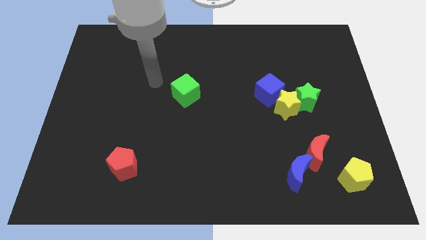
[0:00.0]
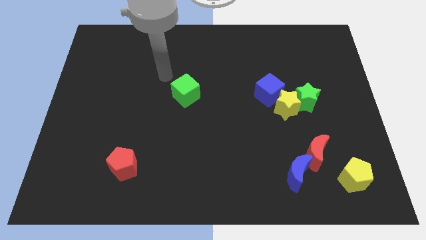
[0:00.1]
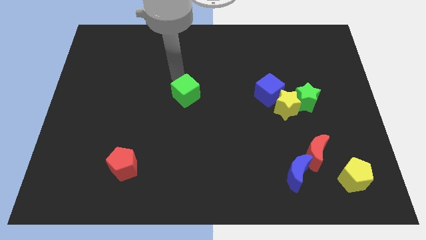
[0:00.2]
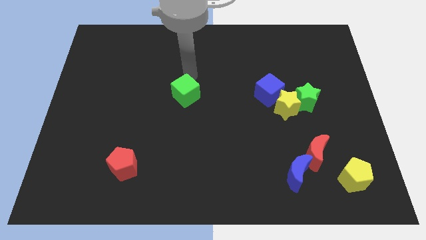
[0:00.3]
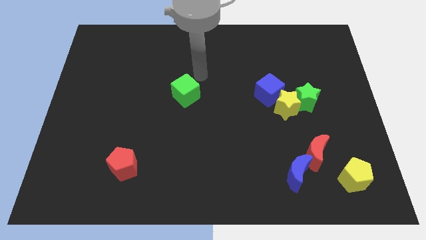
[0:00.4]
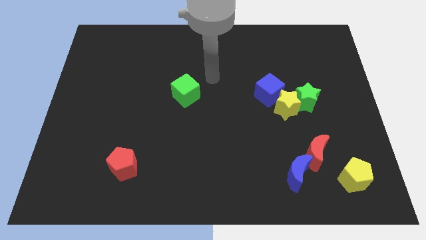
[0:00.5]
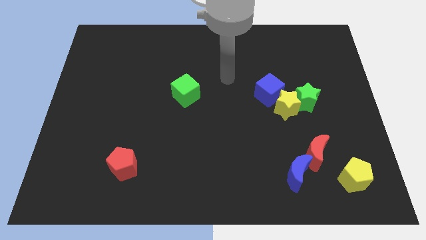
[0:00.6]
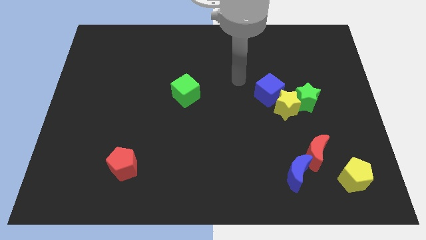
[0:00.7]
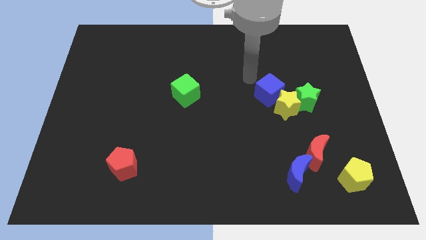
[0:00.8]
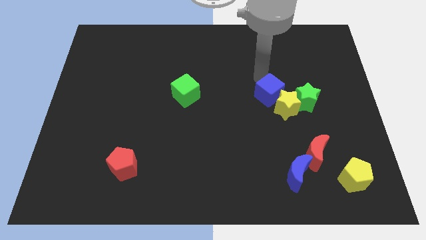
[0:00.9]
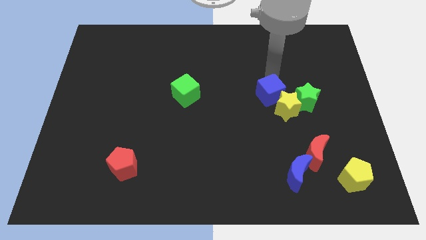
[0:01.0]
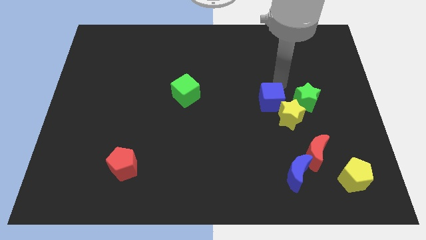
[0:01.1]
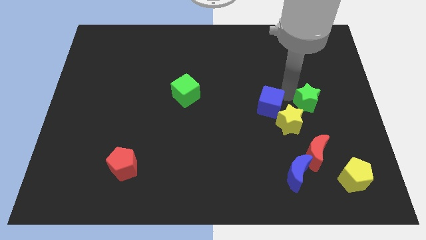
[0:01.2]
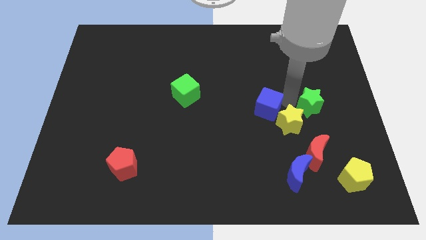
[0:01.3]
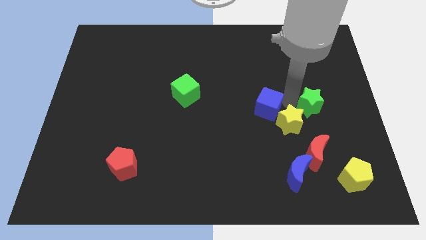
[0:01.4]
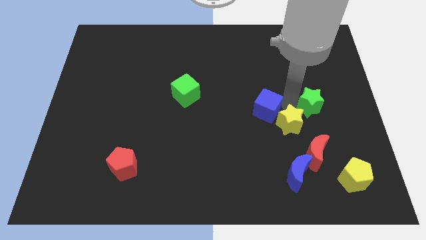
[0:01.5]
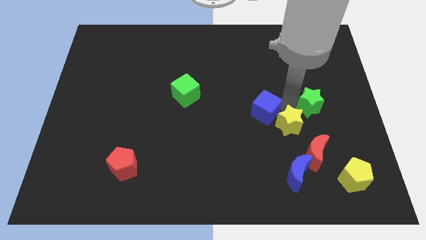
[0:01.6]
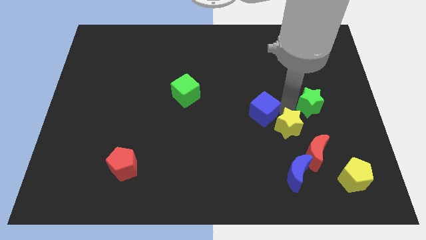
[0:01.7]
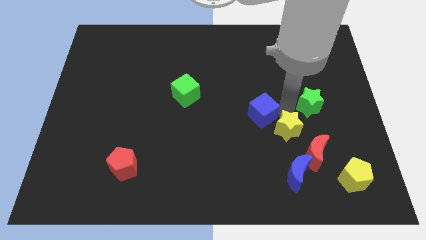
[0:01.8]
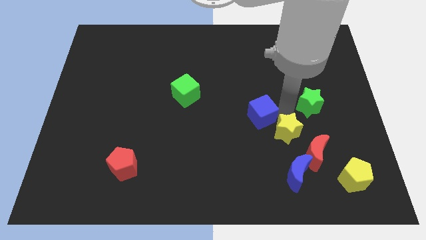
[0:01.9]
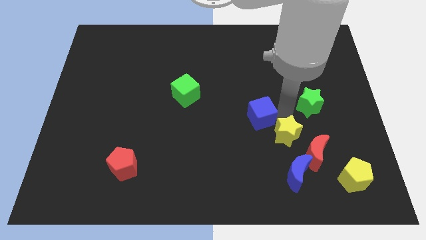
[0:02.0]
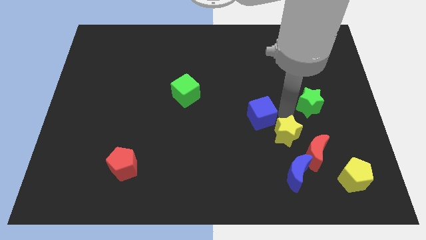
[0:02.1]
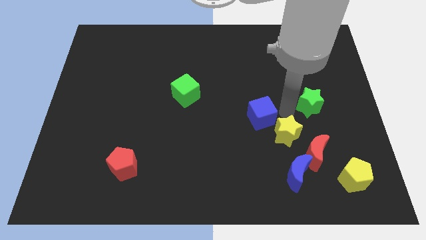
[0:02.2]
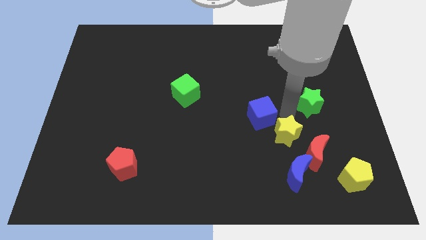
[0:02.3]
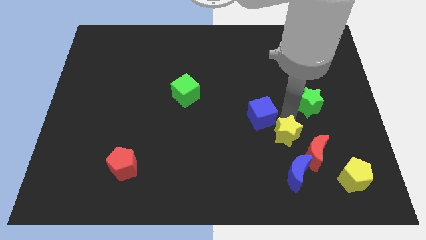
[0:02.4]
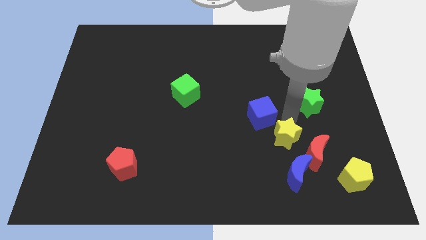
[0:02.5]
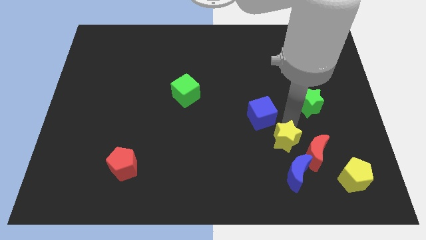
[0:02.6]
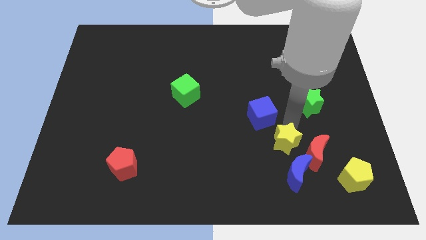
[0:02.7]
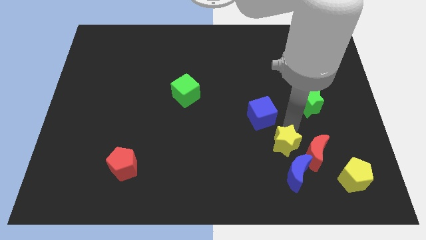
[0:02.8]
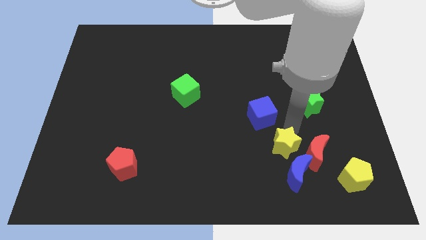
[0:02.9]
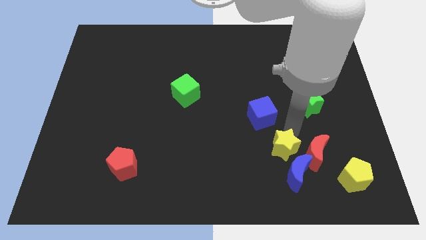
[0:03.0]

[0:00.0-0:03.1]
pull the yellow star apart from the green star and blue cube

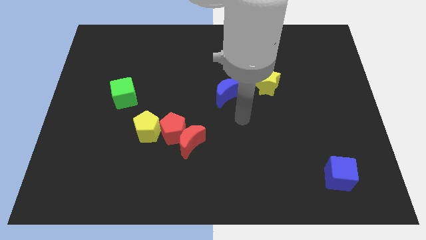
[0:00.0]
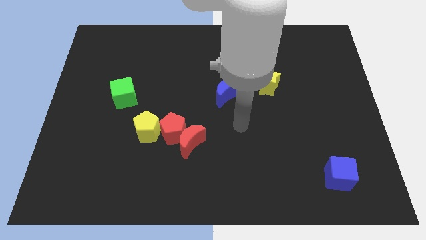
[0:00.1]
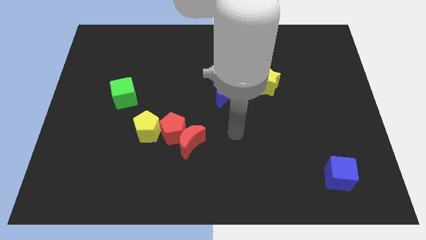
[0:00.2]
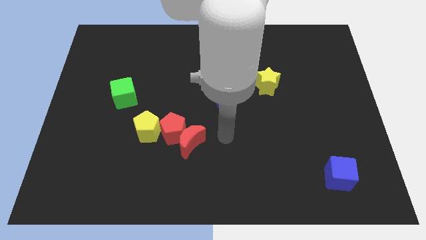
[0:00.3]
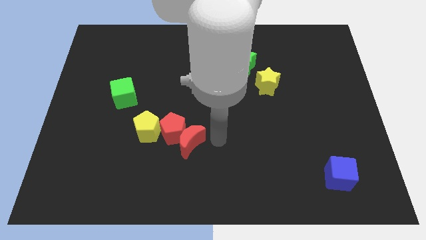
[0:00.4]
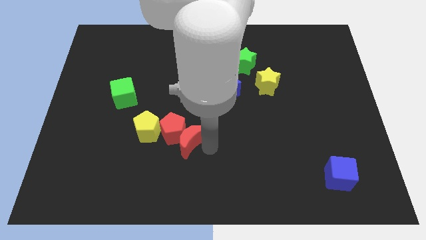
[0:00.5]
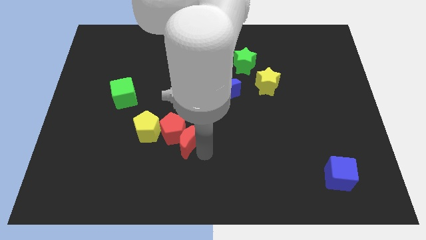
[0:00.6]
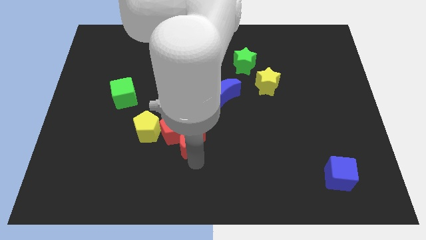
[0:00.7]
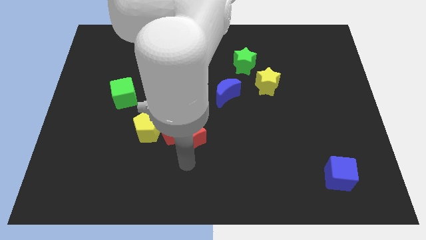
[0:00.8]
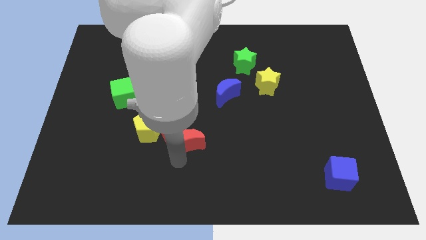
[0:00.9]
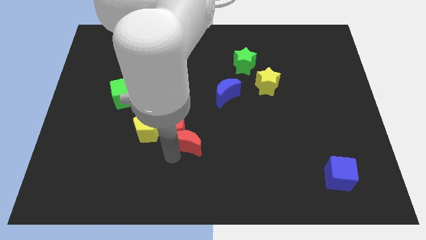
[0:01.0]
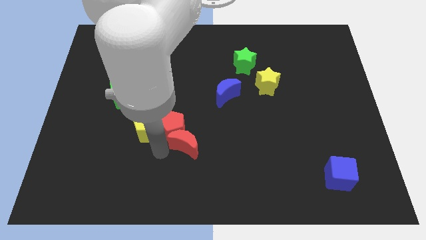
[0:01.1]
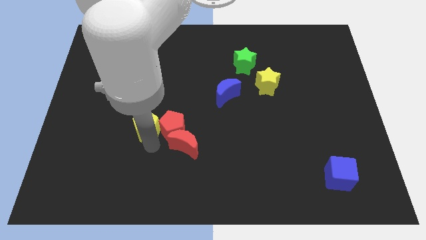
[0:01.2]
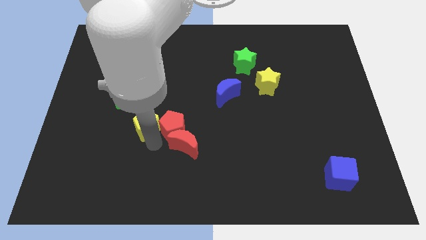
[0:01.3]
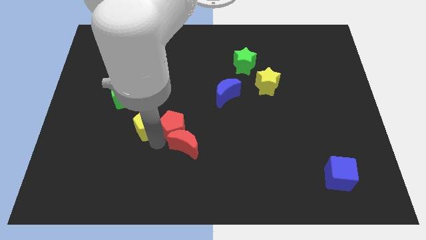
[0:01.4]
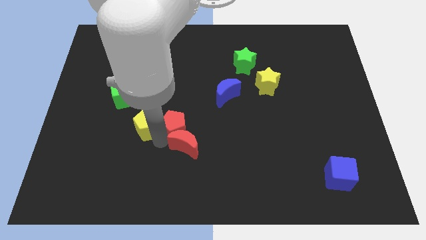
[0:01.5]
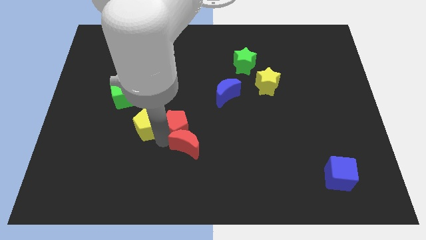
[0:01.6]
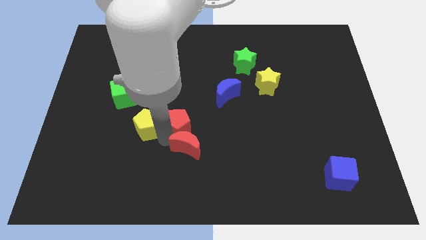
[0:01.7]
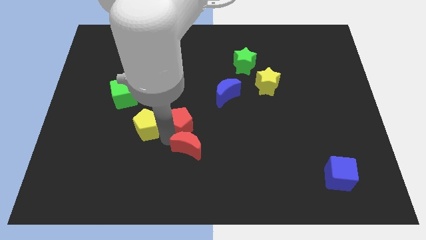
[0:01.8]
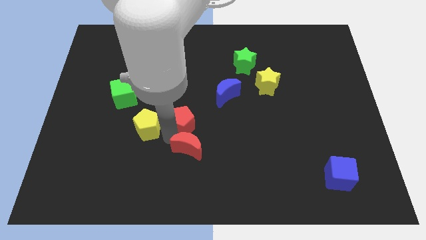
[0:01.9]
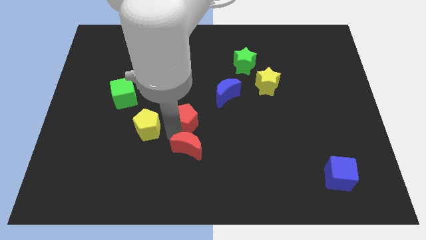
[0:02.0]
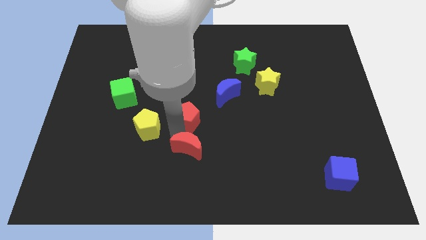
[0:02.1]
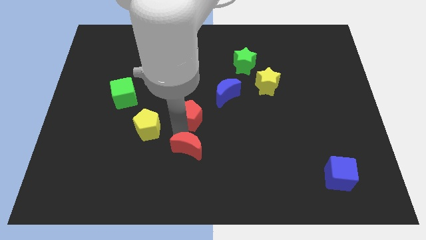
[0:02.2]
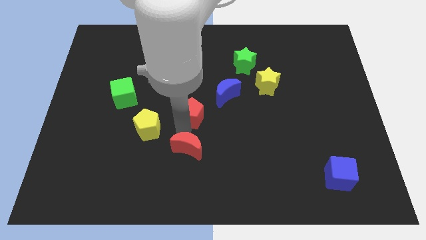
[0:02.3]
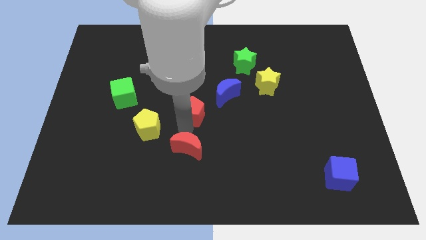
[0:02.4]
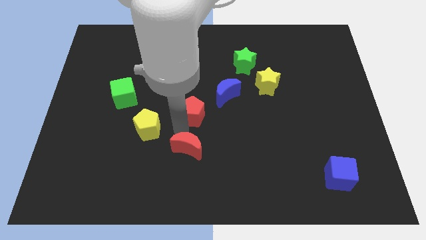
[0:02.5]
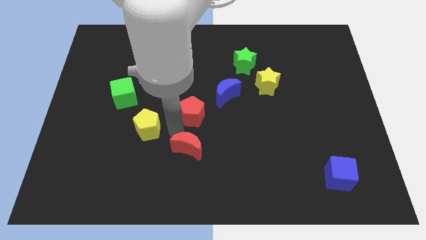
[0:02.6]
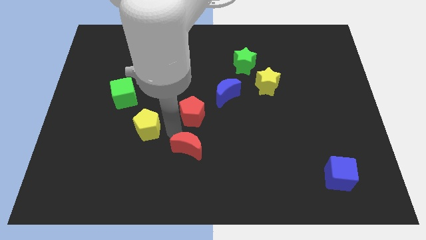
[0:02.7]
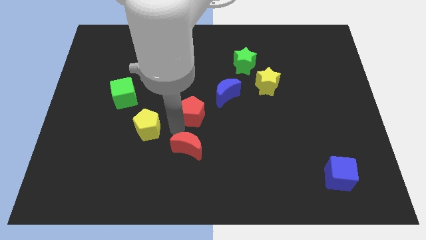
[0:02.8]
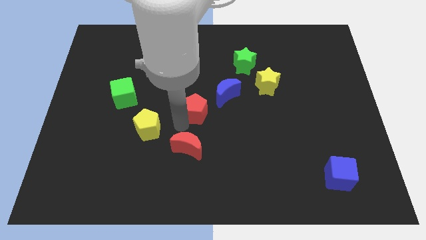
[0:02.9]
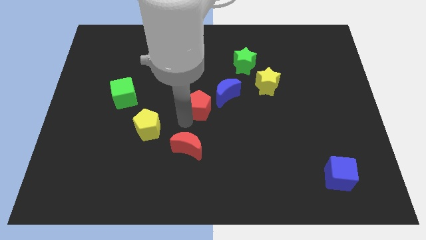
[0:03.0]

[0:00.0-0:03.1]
move the red pentagon away from the red moon and yellow pentagon

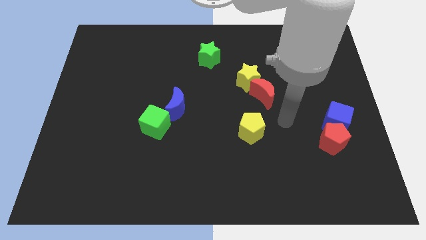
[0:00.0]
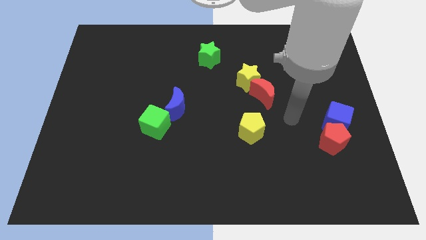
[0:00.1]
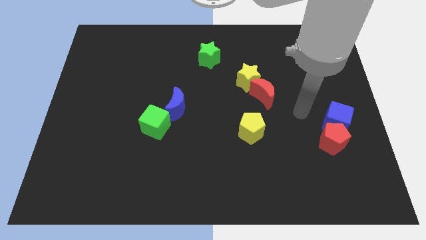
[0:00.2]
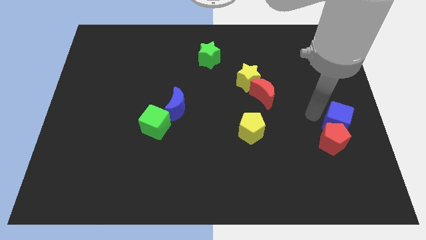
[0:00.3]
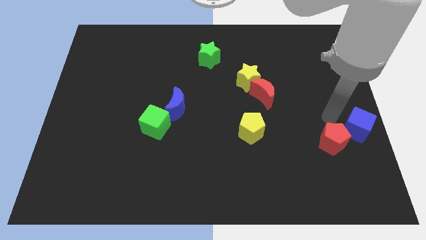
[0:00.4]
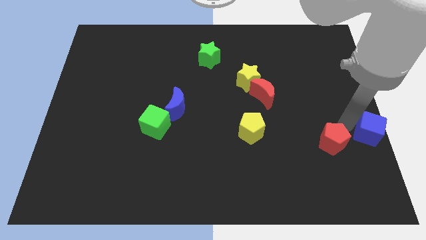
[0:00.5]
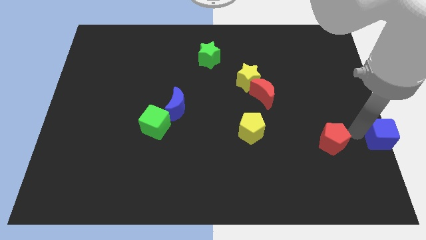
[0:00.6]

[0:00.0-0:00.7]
move the red pentagon away from the blue cube

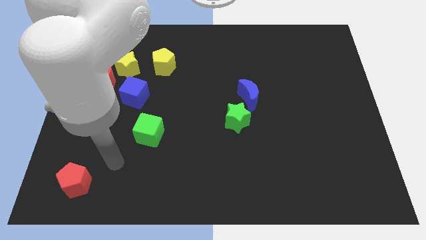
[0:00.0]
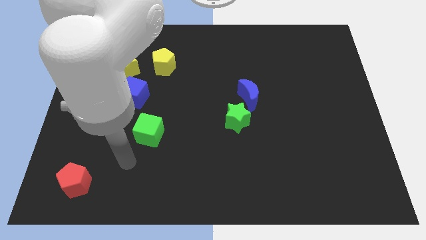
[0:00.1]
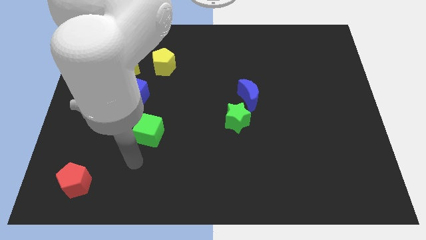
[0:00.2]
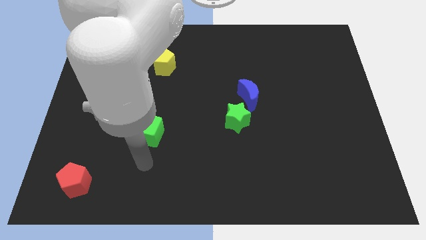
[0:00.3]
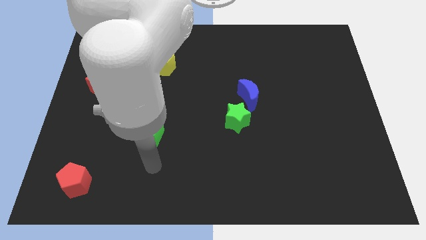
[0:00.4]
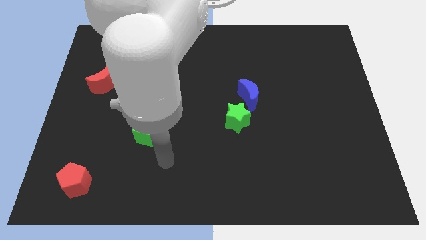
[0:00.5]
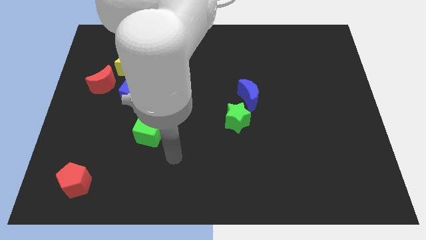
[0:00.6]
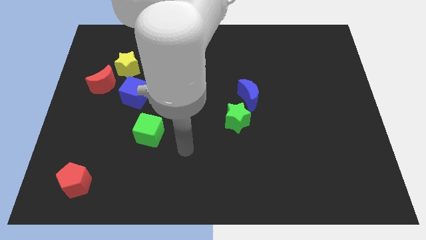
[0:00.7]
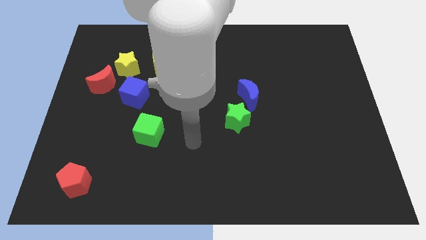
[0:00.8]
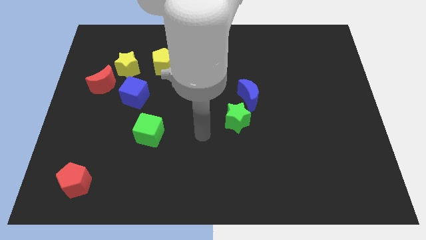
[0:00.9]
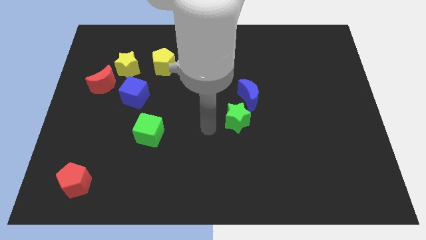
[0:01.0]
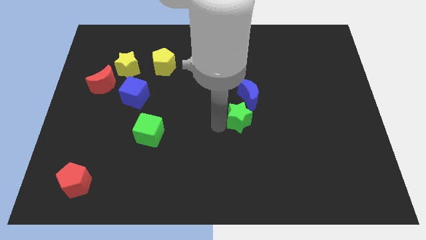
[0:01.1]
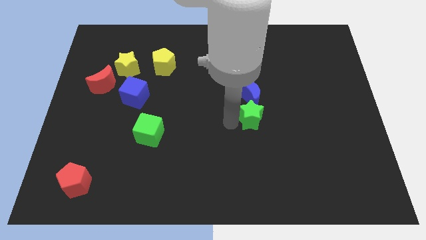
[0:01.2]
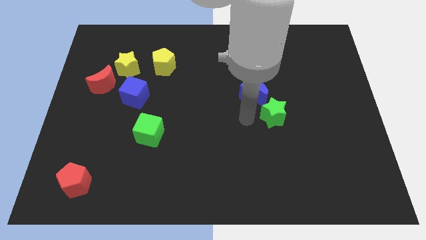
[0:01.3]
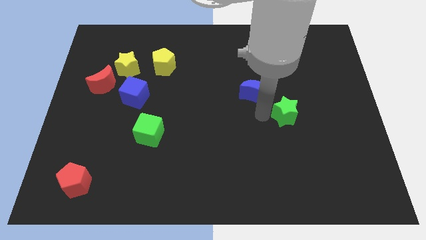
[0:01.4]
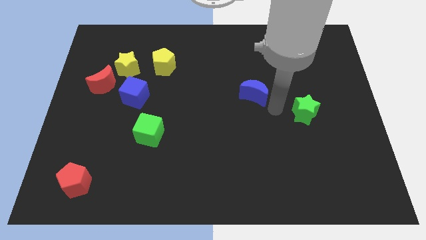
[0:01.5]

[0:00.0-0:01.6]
move the blue moon away from the green star

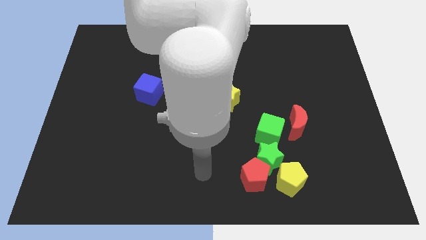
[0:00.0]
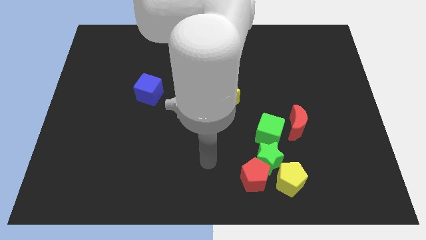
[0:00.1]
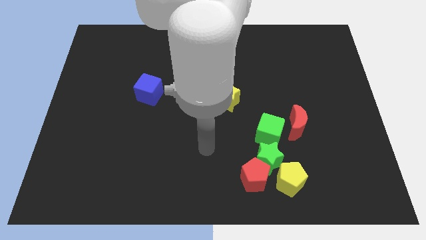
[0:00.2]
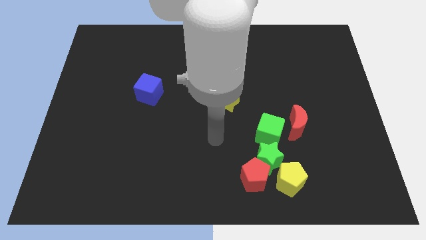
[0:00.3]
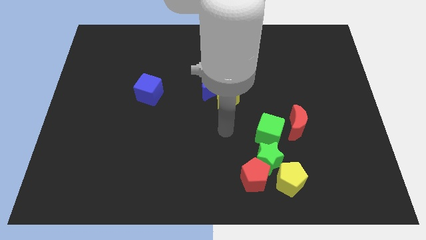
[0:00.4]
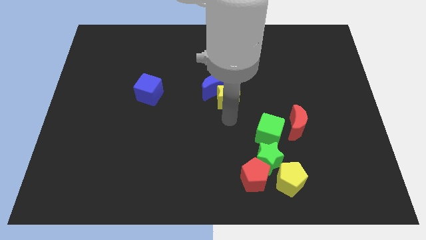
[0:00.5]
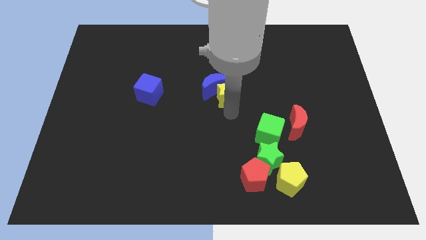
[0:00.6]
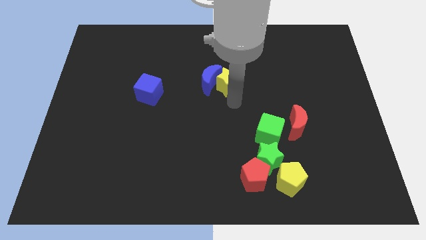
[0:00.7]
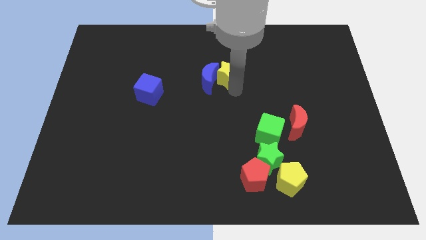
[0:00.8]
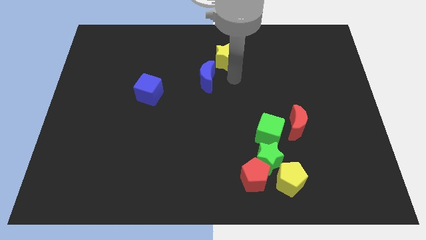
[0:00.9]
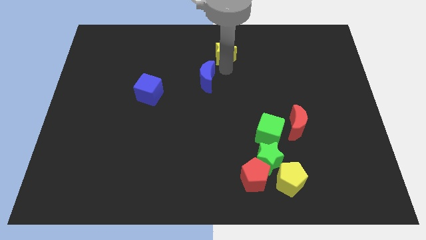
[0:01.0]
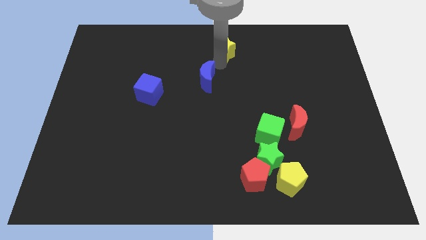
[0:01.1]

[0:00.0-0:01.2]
move the blue moon away from the yellow star
